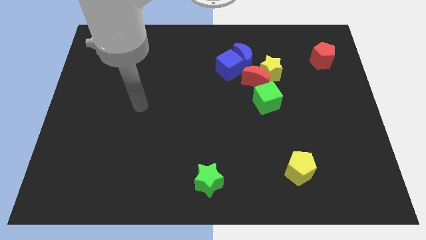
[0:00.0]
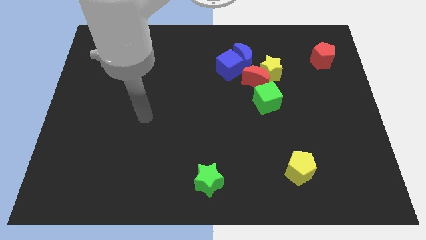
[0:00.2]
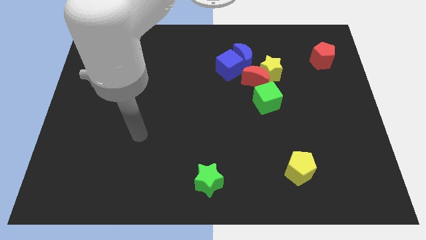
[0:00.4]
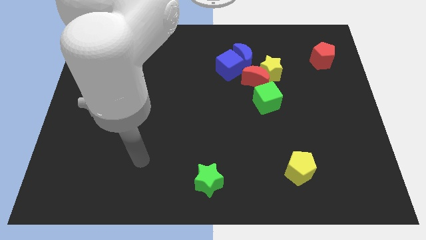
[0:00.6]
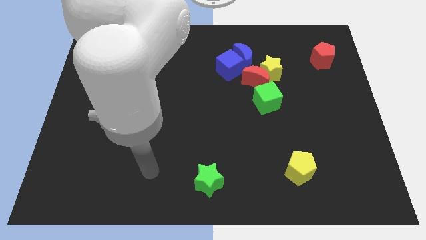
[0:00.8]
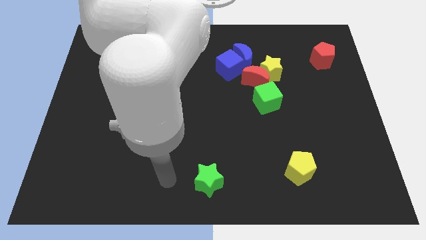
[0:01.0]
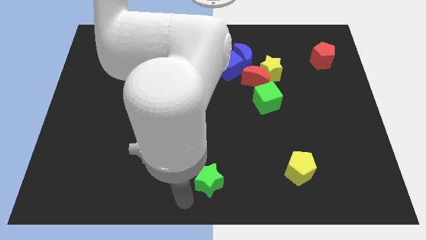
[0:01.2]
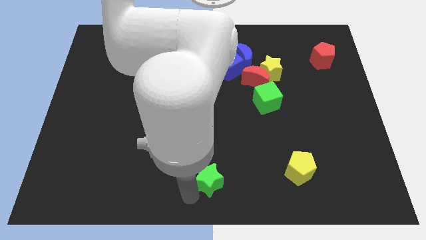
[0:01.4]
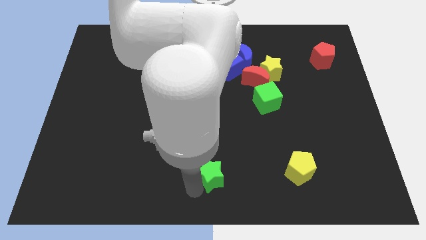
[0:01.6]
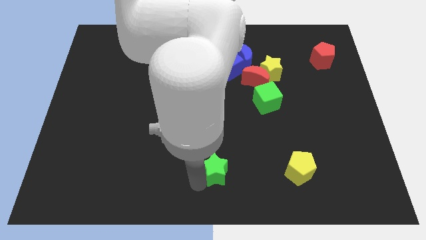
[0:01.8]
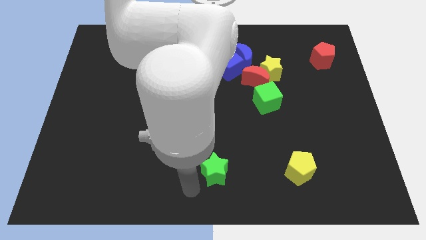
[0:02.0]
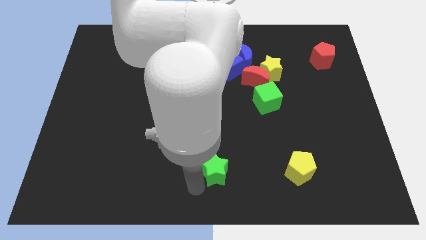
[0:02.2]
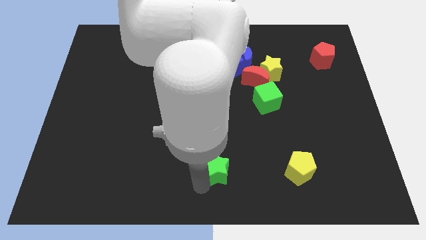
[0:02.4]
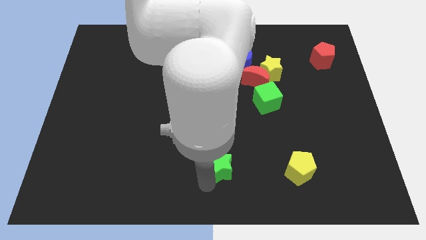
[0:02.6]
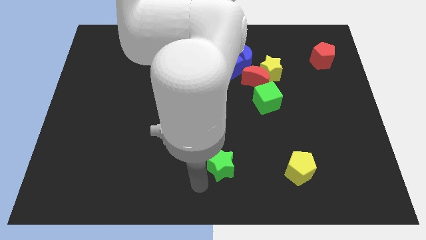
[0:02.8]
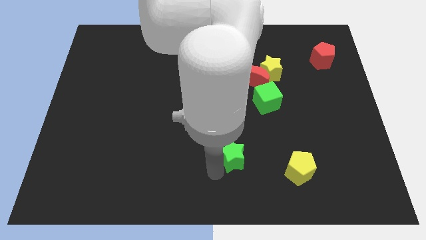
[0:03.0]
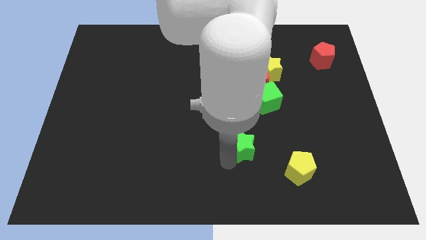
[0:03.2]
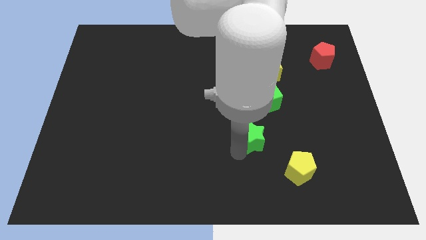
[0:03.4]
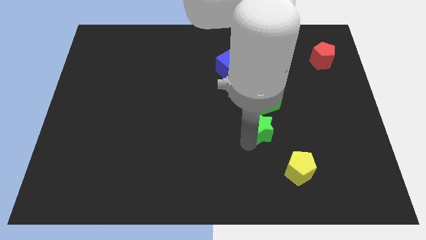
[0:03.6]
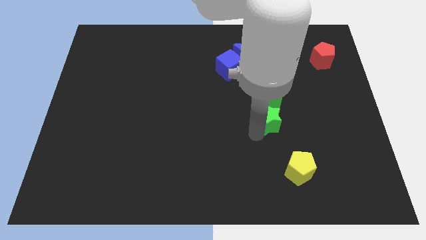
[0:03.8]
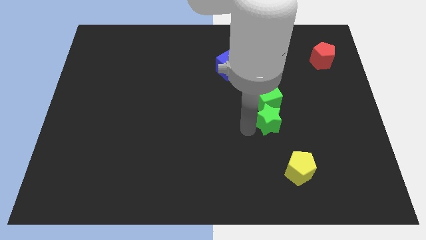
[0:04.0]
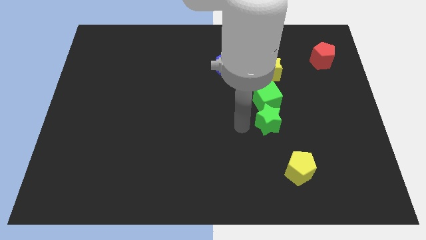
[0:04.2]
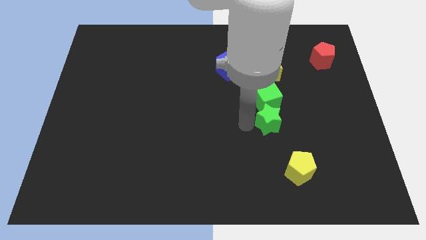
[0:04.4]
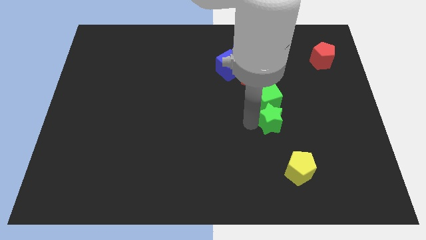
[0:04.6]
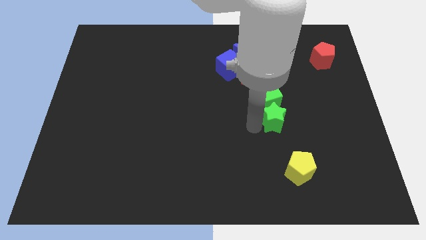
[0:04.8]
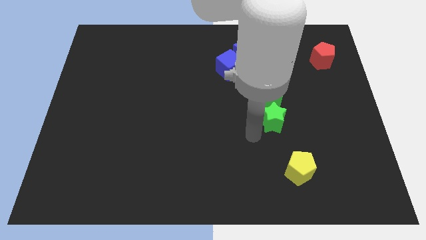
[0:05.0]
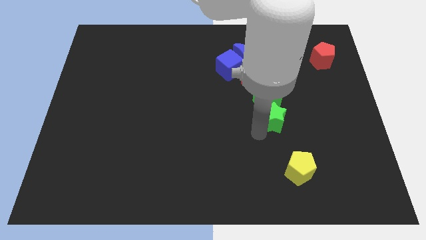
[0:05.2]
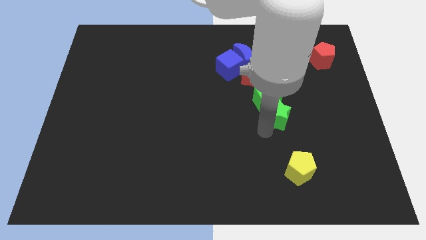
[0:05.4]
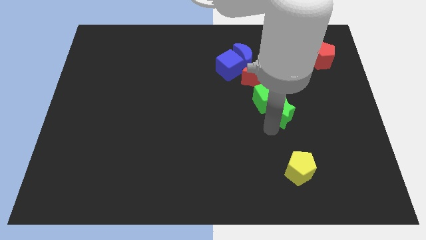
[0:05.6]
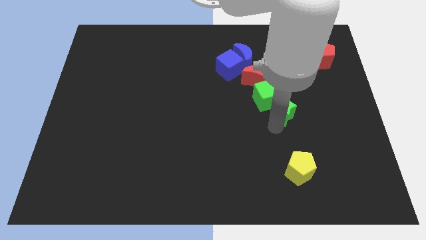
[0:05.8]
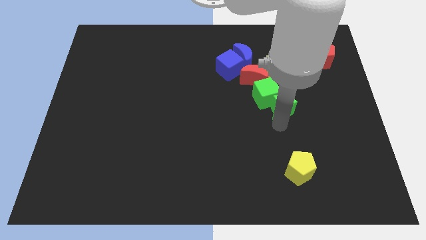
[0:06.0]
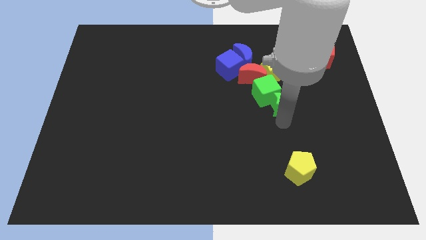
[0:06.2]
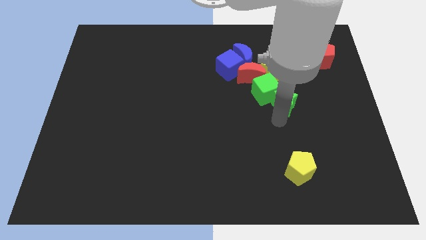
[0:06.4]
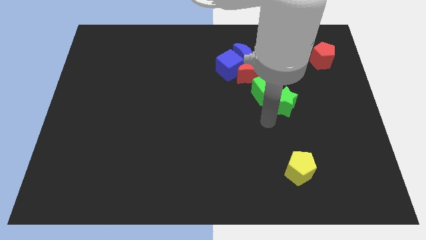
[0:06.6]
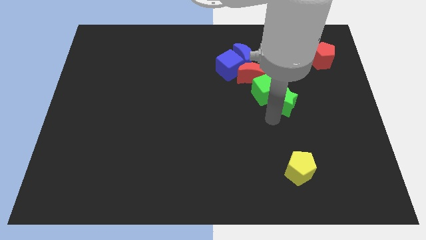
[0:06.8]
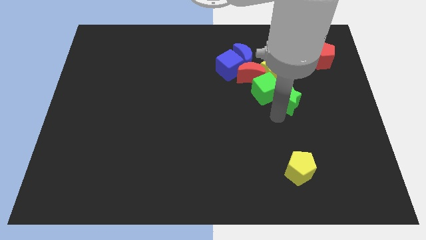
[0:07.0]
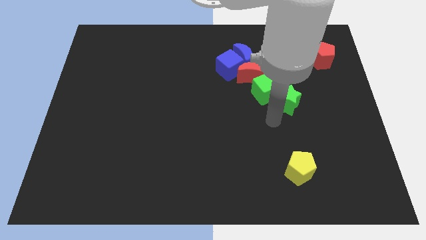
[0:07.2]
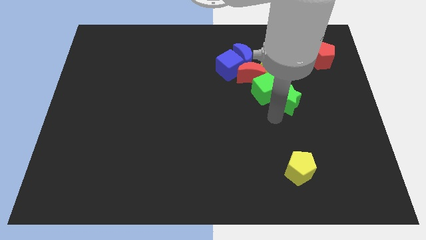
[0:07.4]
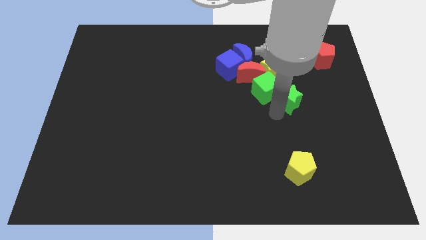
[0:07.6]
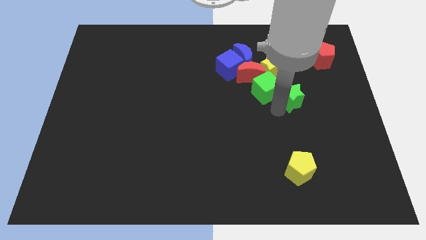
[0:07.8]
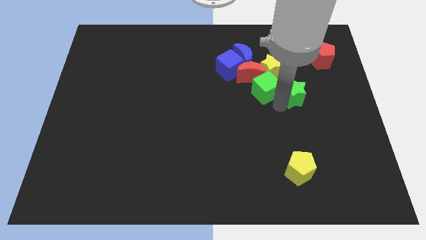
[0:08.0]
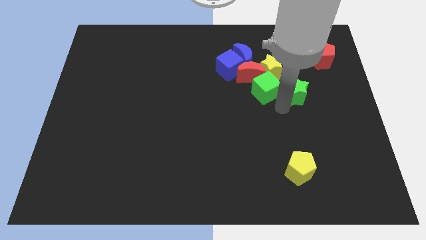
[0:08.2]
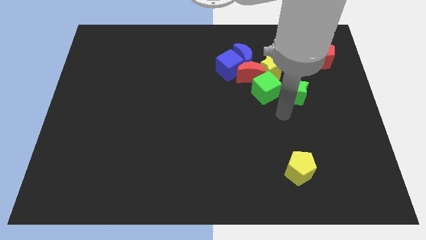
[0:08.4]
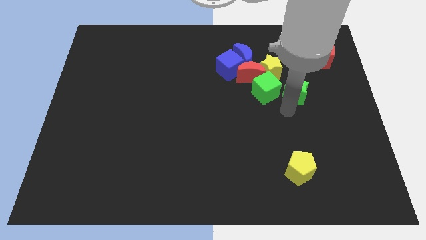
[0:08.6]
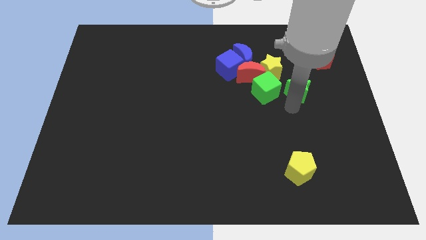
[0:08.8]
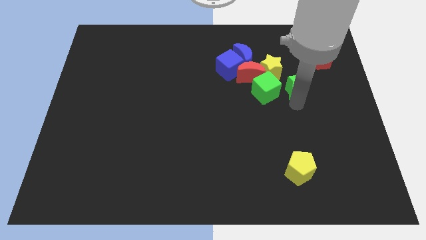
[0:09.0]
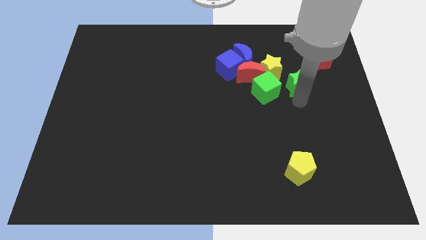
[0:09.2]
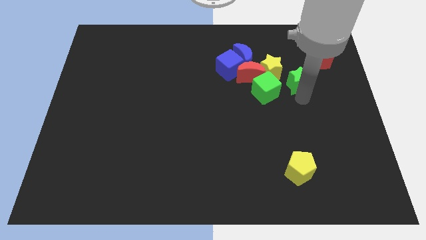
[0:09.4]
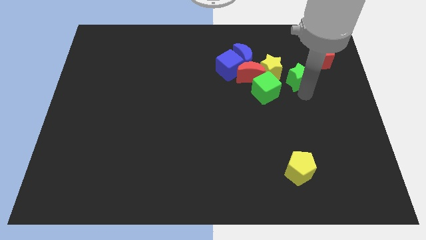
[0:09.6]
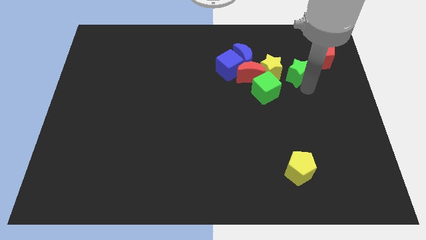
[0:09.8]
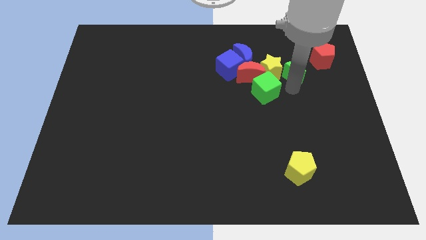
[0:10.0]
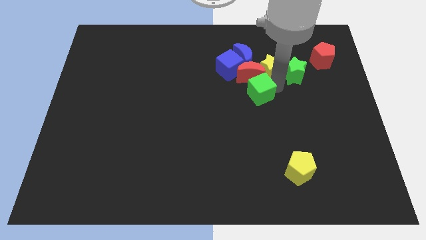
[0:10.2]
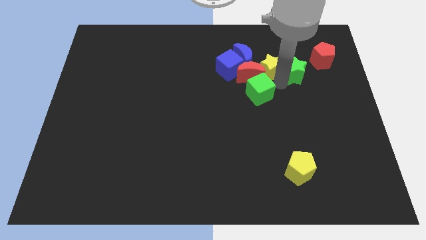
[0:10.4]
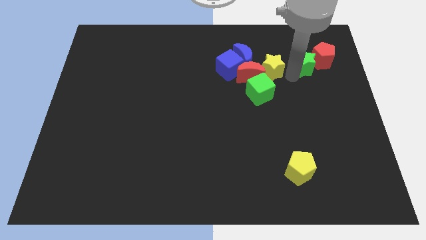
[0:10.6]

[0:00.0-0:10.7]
slide the green star to the red pentagon
